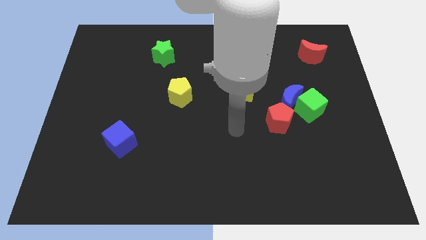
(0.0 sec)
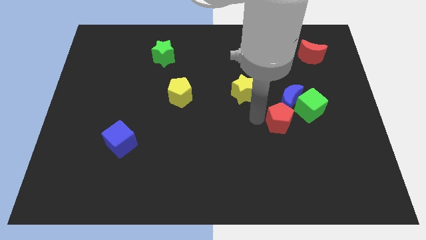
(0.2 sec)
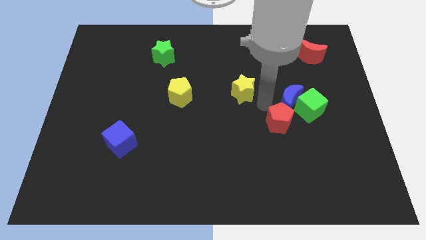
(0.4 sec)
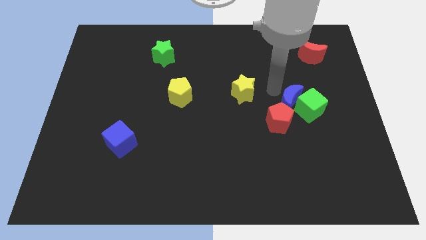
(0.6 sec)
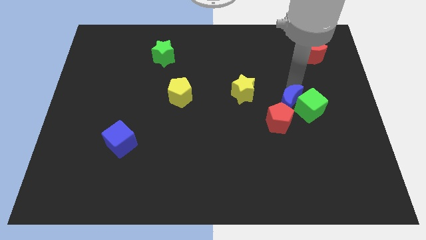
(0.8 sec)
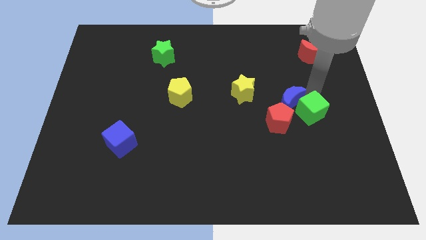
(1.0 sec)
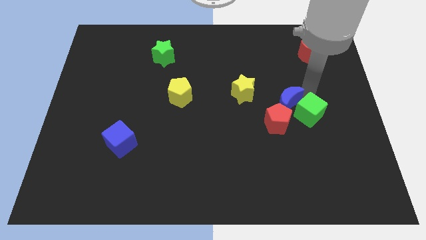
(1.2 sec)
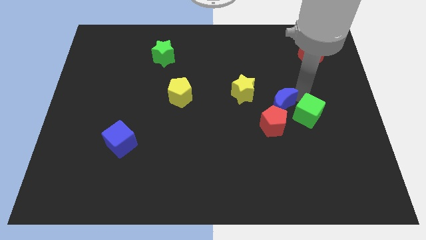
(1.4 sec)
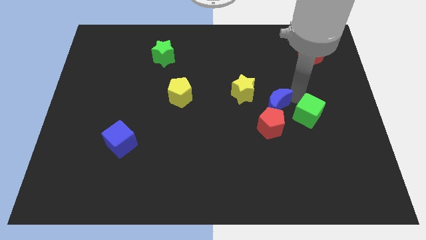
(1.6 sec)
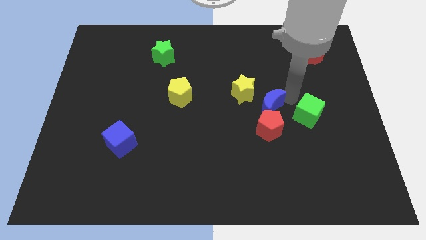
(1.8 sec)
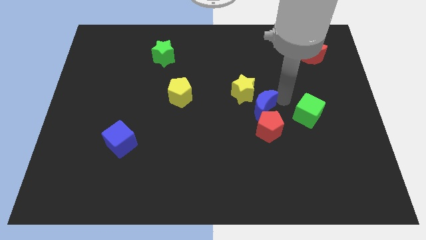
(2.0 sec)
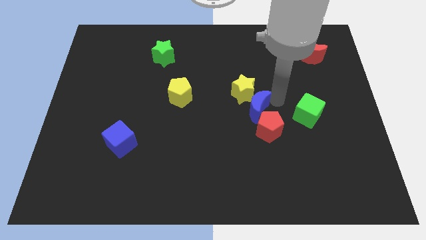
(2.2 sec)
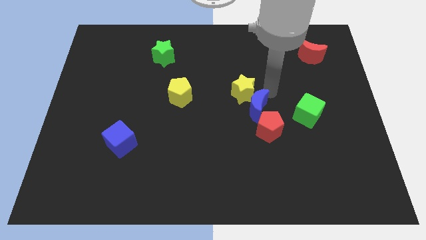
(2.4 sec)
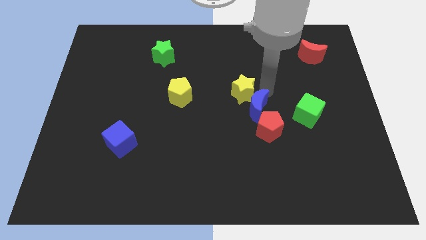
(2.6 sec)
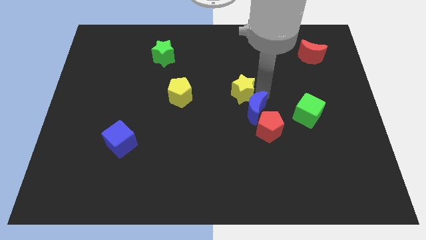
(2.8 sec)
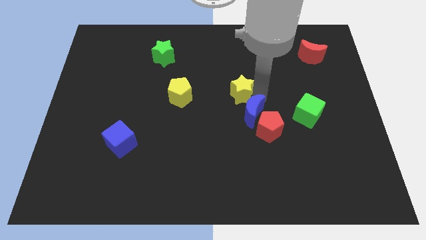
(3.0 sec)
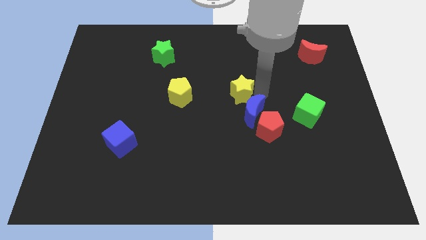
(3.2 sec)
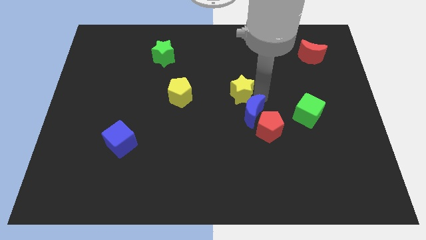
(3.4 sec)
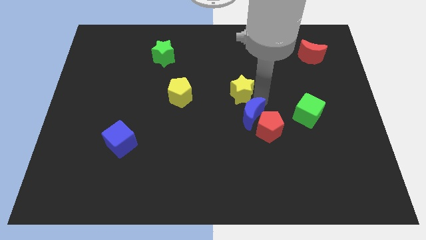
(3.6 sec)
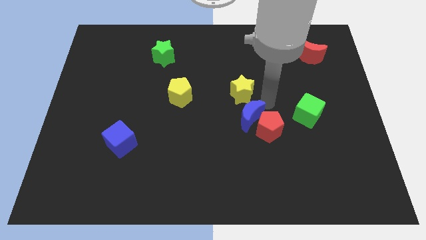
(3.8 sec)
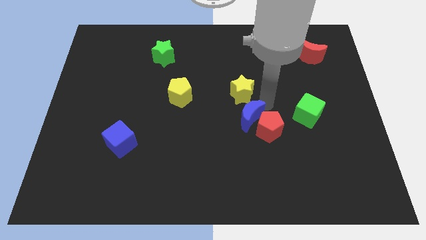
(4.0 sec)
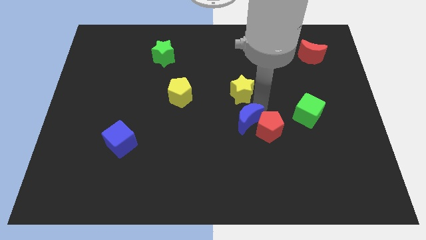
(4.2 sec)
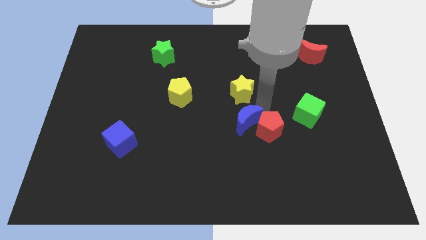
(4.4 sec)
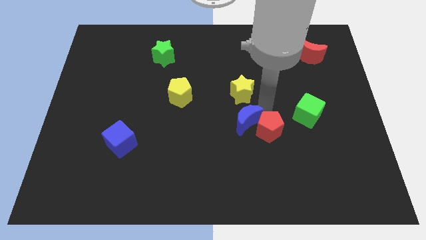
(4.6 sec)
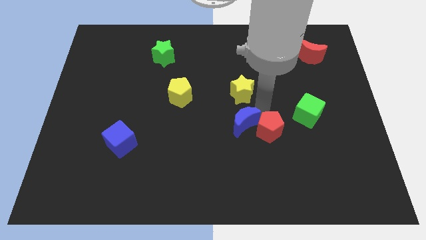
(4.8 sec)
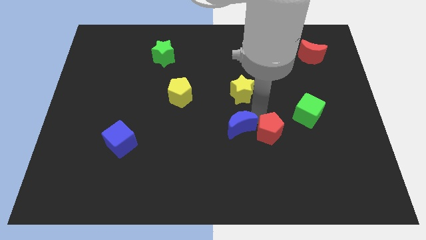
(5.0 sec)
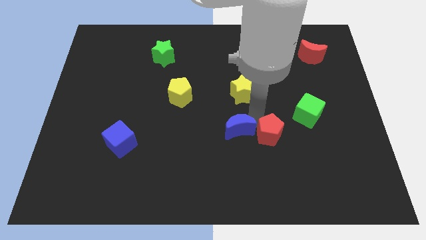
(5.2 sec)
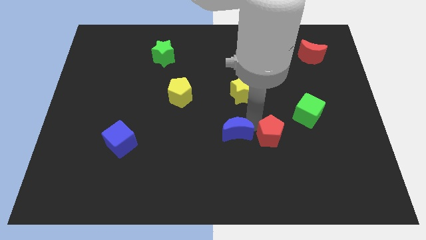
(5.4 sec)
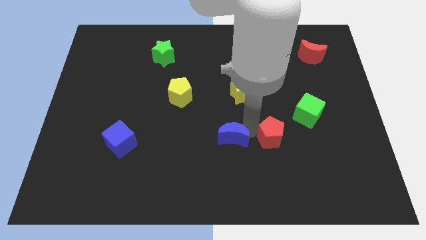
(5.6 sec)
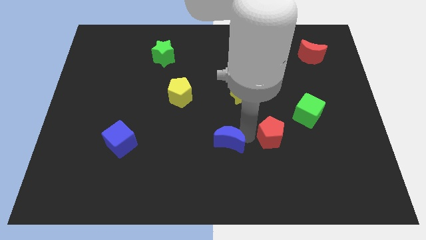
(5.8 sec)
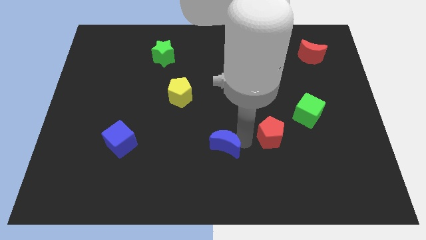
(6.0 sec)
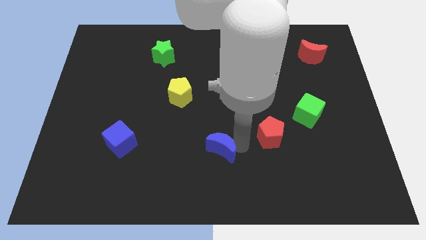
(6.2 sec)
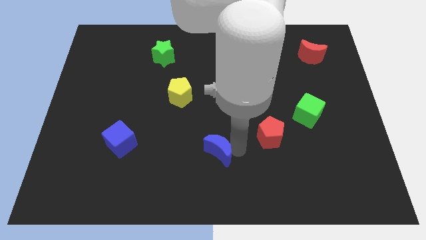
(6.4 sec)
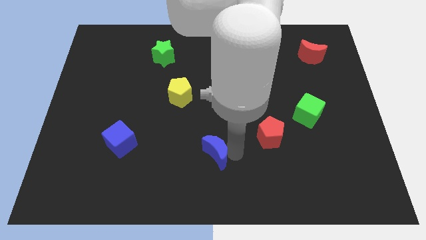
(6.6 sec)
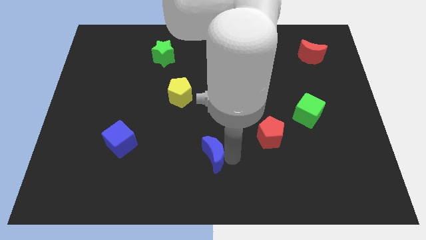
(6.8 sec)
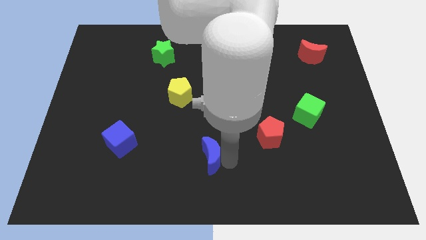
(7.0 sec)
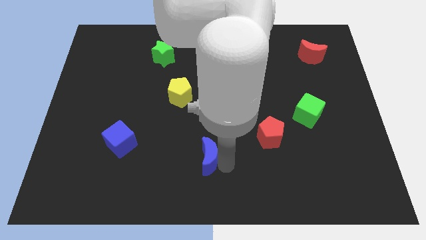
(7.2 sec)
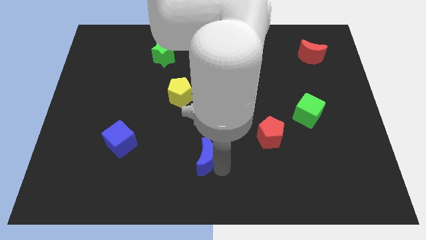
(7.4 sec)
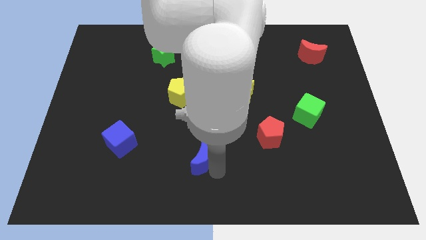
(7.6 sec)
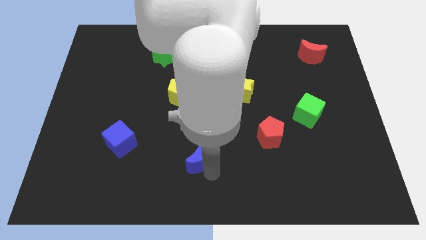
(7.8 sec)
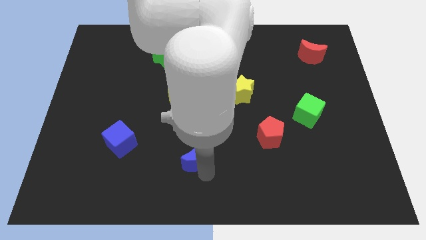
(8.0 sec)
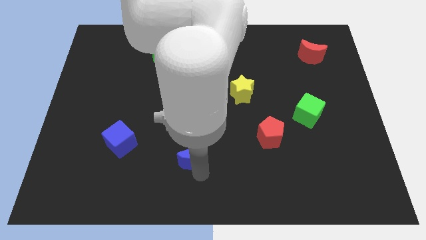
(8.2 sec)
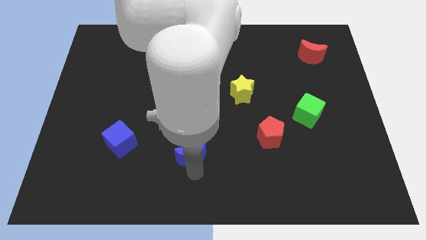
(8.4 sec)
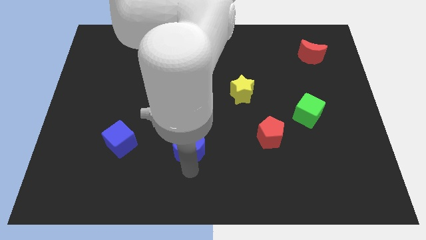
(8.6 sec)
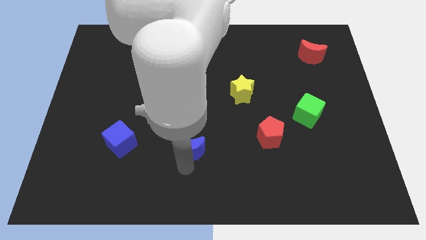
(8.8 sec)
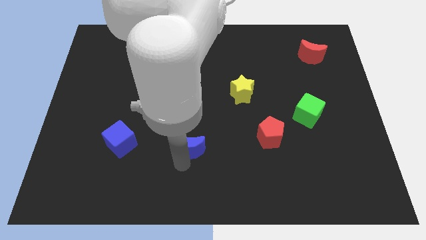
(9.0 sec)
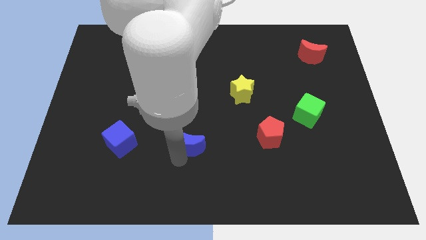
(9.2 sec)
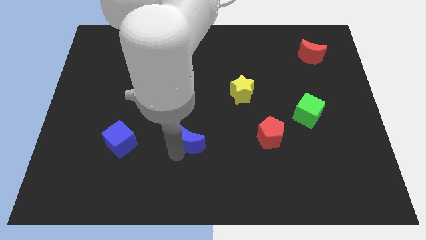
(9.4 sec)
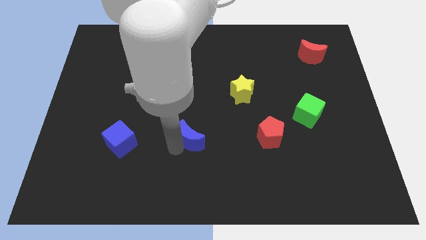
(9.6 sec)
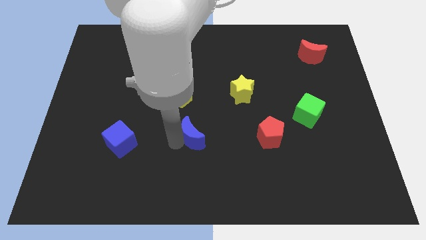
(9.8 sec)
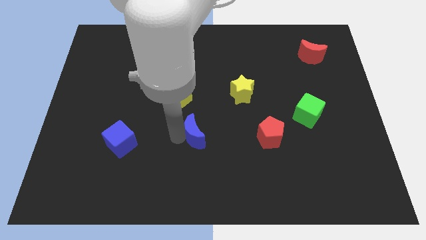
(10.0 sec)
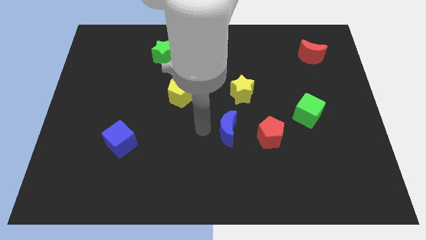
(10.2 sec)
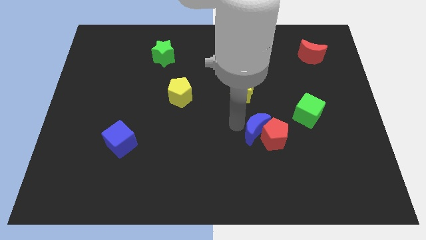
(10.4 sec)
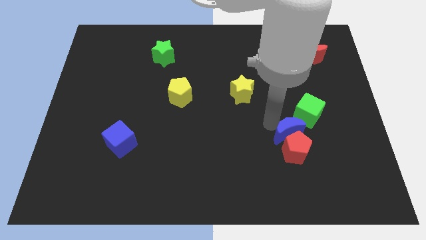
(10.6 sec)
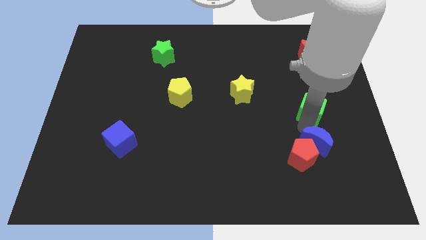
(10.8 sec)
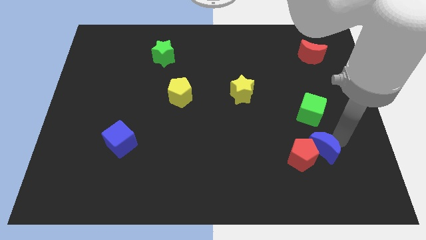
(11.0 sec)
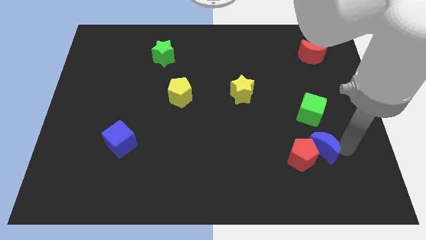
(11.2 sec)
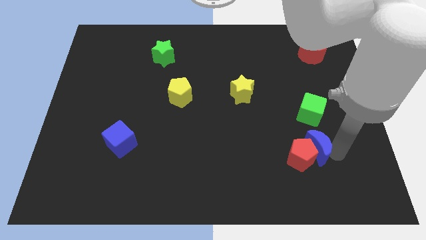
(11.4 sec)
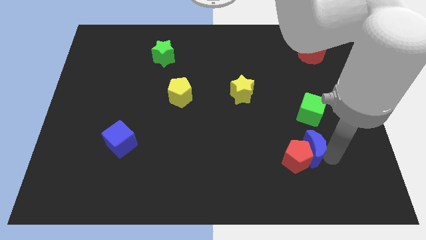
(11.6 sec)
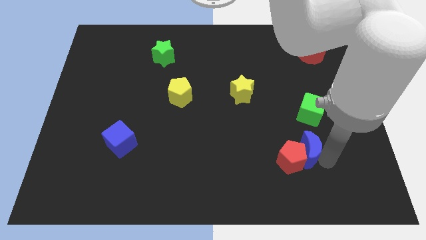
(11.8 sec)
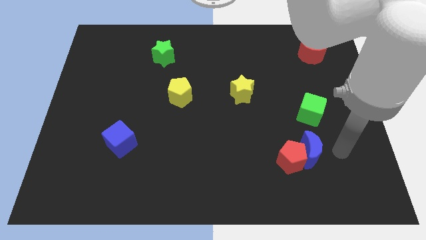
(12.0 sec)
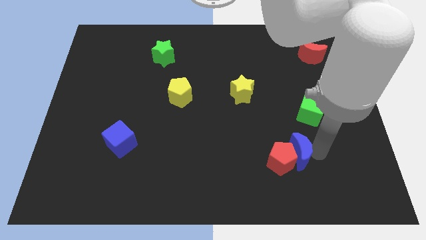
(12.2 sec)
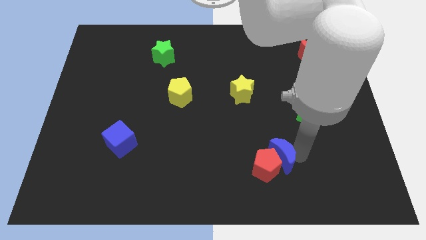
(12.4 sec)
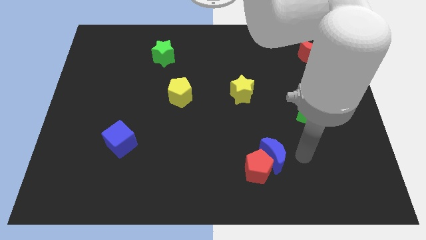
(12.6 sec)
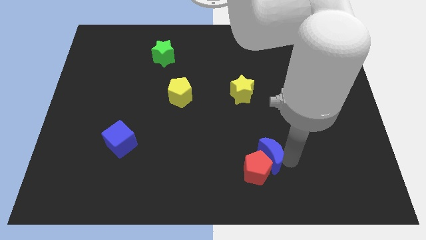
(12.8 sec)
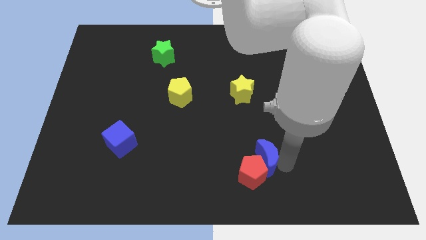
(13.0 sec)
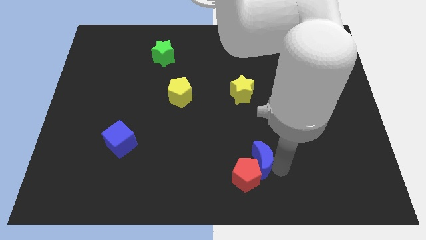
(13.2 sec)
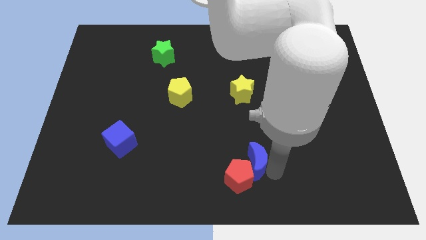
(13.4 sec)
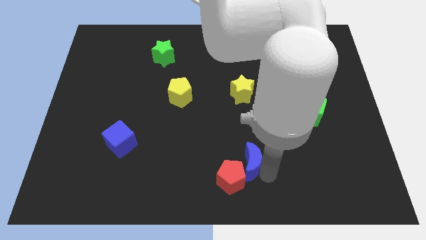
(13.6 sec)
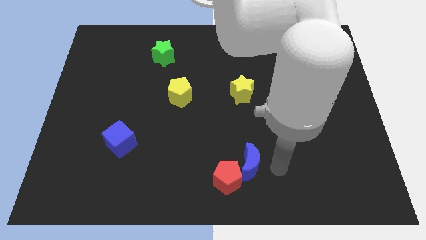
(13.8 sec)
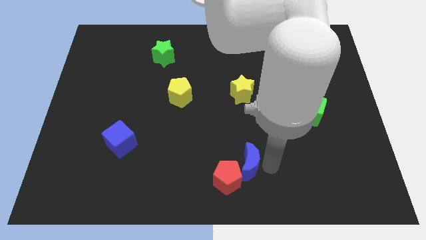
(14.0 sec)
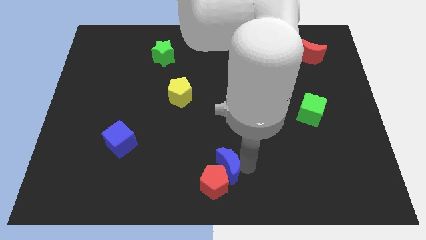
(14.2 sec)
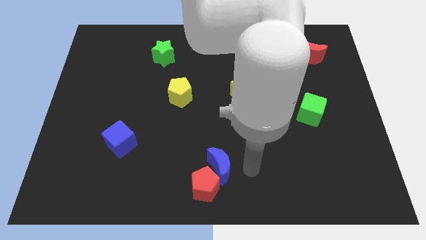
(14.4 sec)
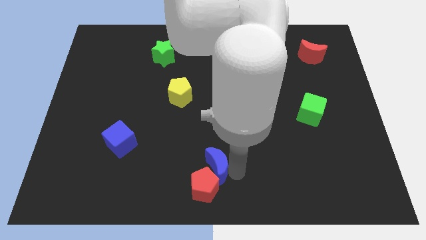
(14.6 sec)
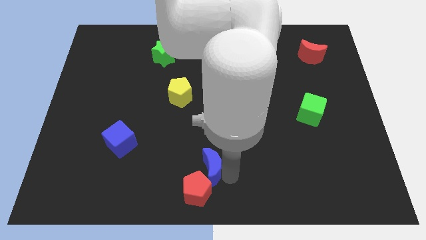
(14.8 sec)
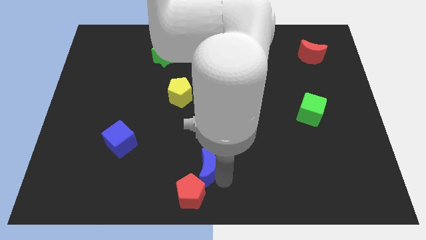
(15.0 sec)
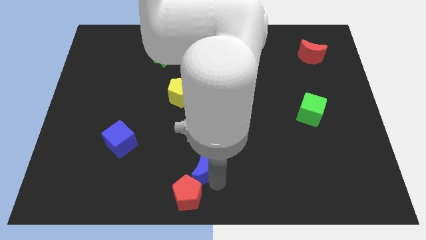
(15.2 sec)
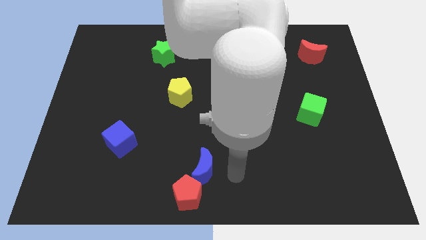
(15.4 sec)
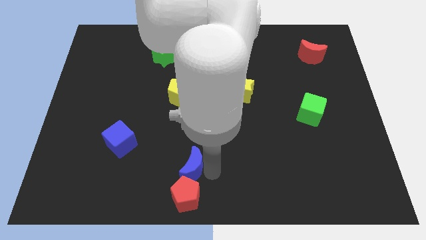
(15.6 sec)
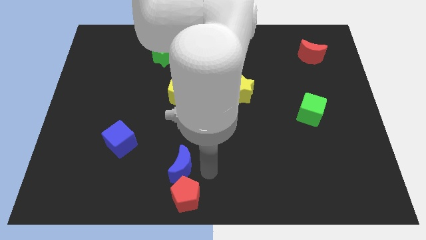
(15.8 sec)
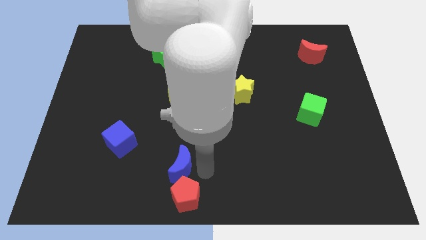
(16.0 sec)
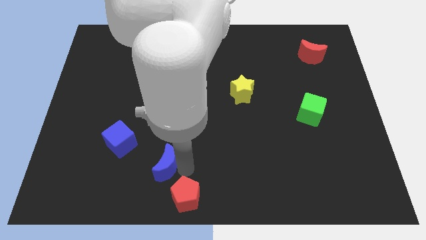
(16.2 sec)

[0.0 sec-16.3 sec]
move the blue moon to the bottom right side of the blue cube
